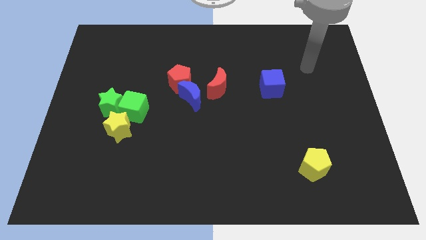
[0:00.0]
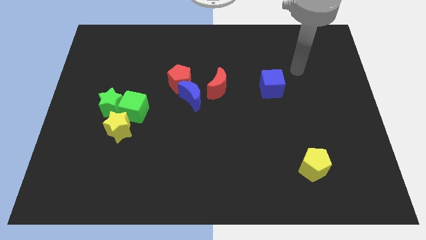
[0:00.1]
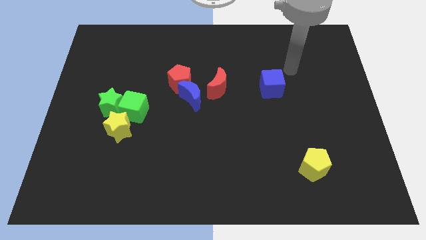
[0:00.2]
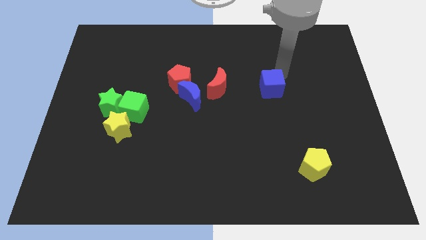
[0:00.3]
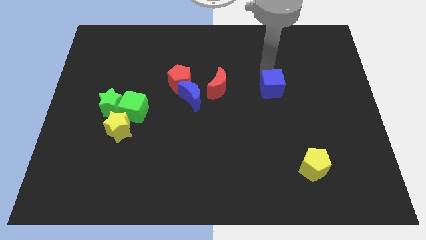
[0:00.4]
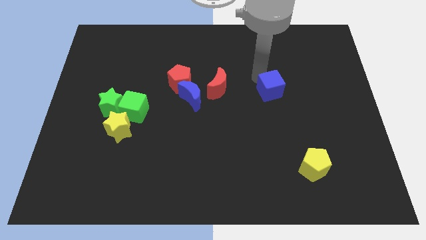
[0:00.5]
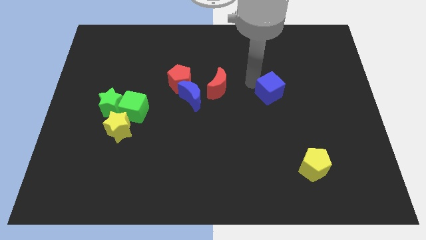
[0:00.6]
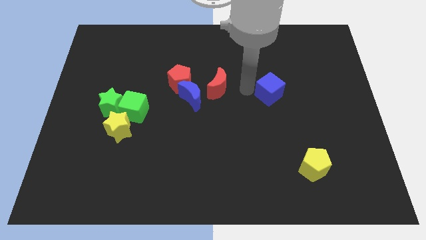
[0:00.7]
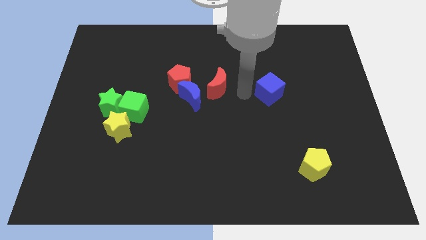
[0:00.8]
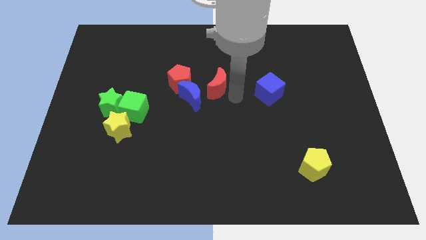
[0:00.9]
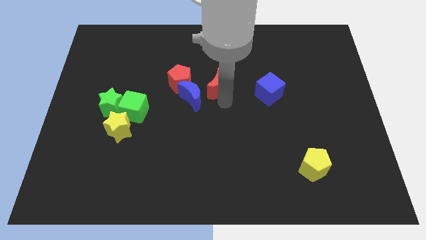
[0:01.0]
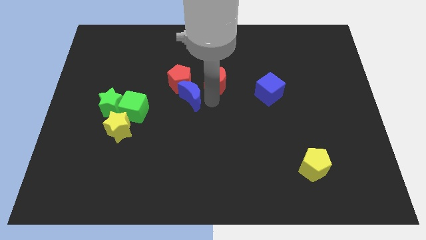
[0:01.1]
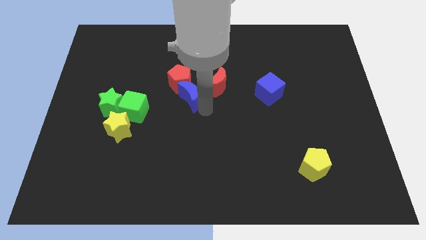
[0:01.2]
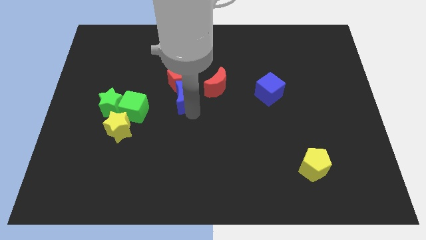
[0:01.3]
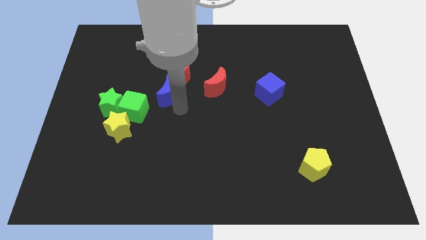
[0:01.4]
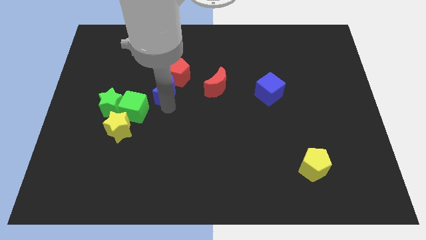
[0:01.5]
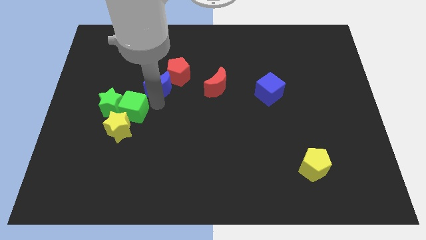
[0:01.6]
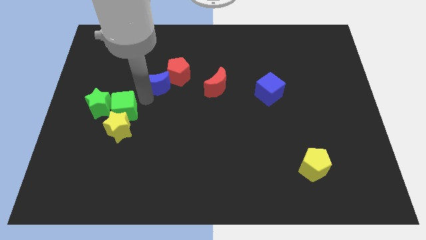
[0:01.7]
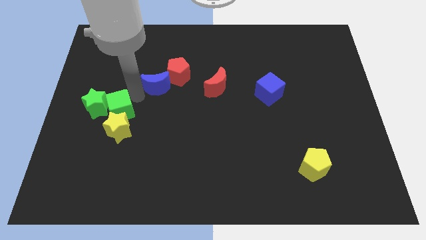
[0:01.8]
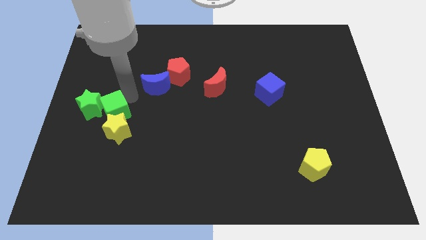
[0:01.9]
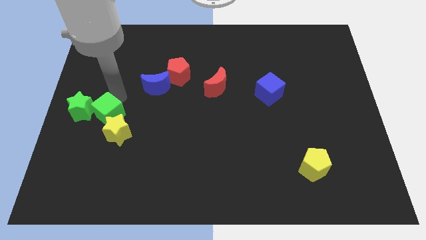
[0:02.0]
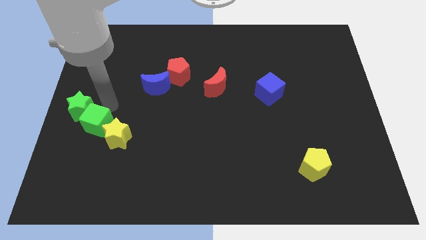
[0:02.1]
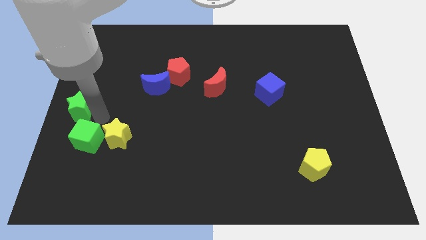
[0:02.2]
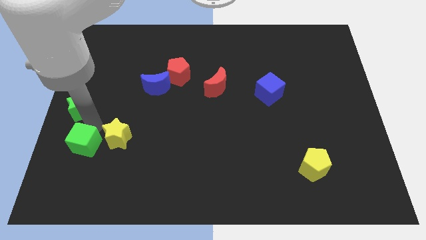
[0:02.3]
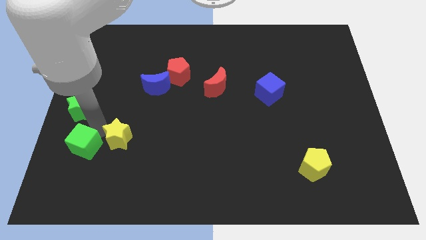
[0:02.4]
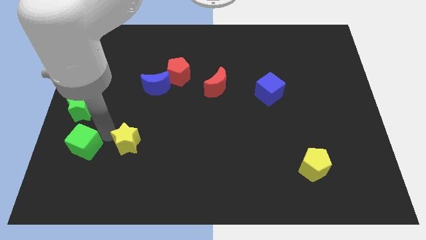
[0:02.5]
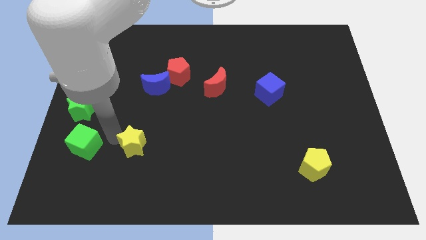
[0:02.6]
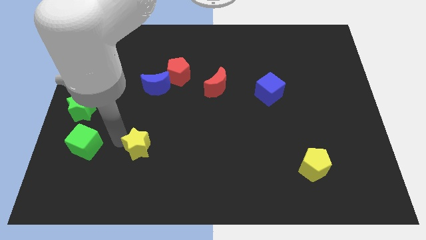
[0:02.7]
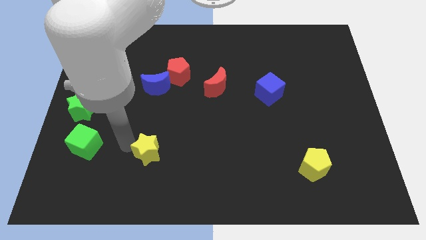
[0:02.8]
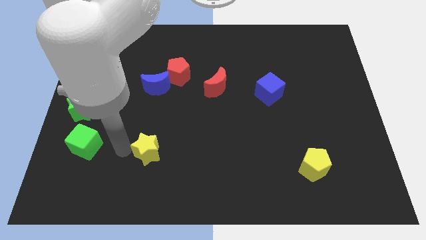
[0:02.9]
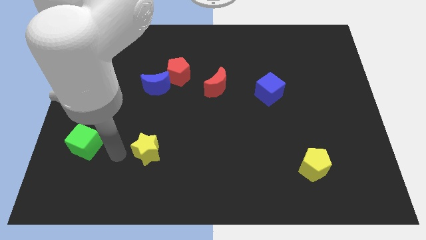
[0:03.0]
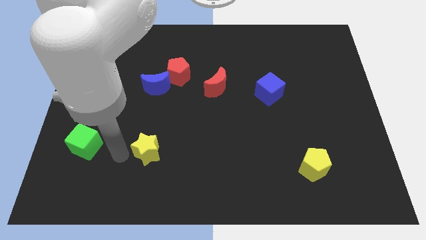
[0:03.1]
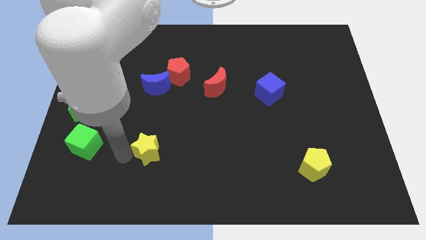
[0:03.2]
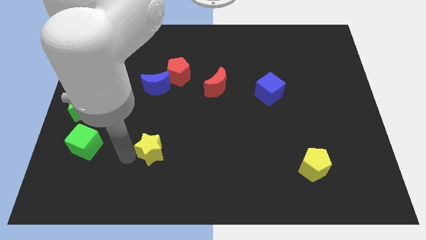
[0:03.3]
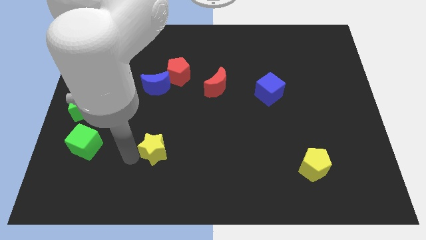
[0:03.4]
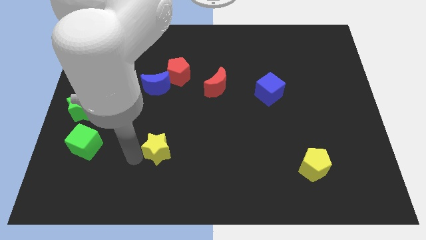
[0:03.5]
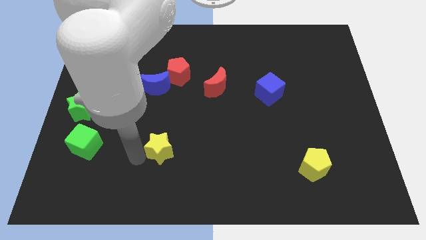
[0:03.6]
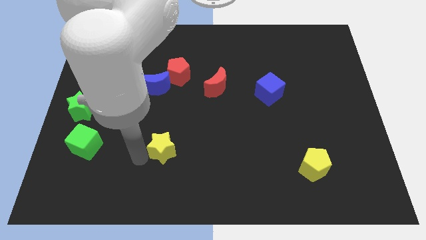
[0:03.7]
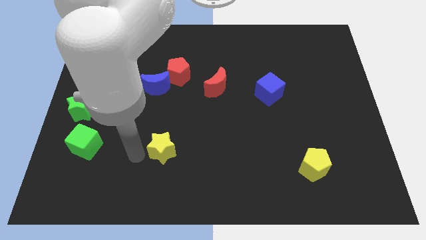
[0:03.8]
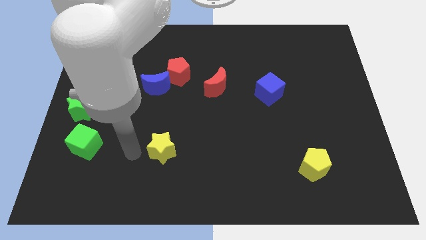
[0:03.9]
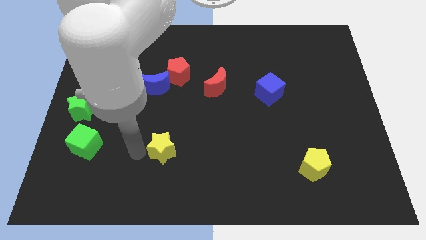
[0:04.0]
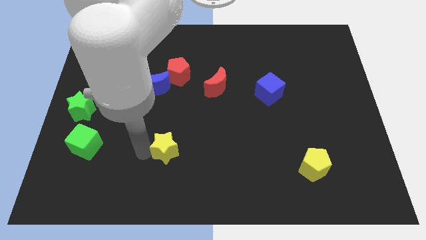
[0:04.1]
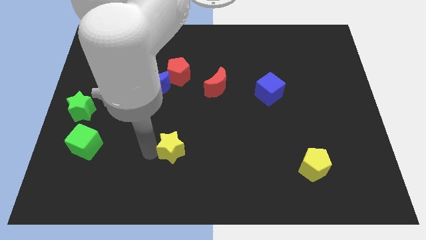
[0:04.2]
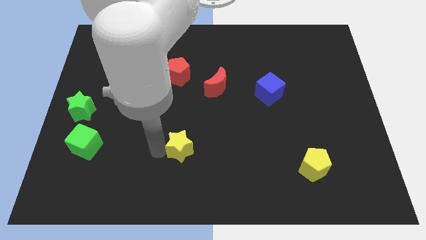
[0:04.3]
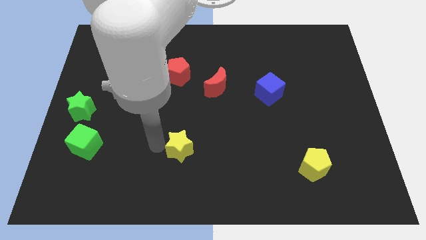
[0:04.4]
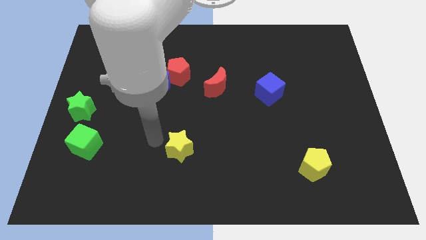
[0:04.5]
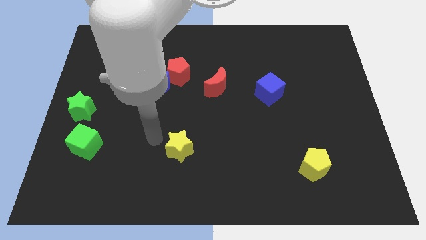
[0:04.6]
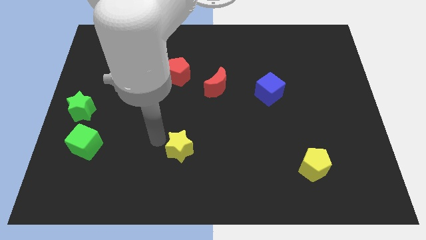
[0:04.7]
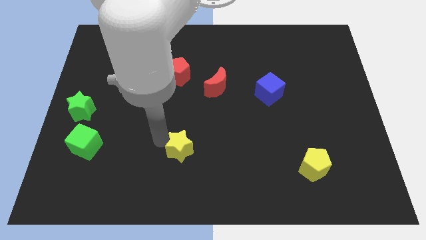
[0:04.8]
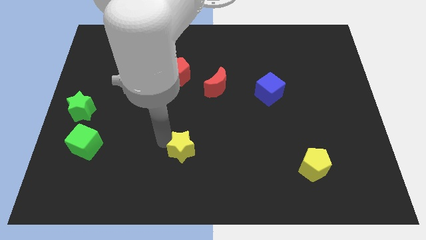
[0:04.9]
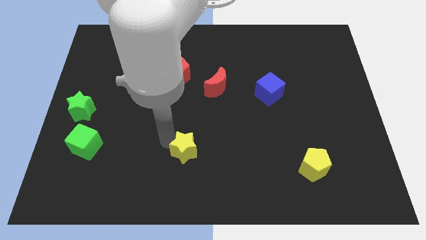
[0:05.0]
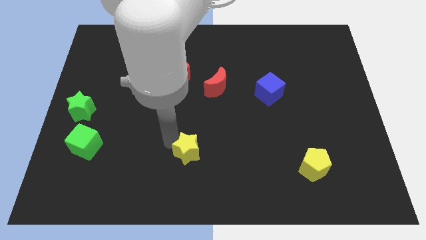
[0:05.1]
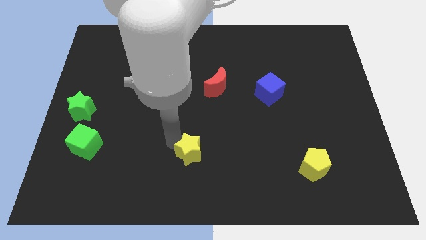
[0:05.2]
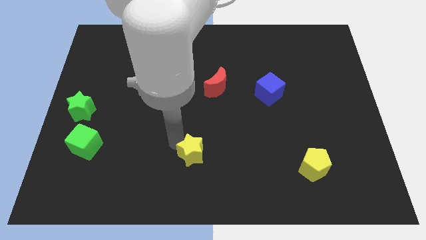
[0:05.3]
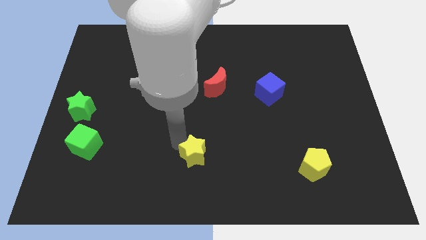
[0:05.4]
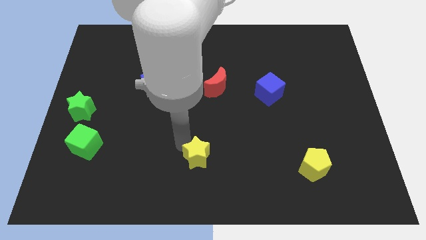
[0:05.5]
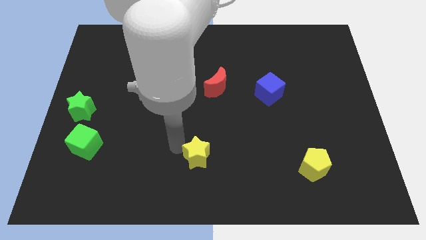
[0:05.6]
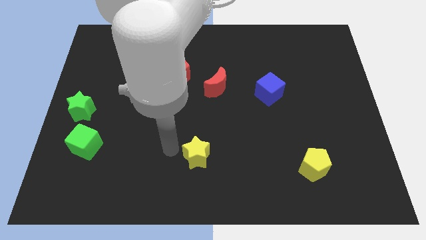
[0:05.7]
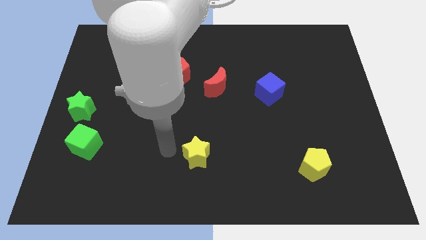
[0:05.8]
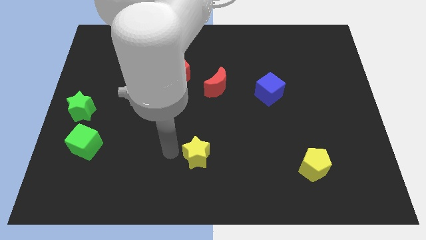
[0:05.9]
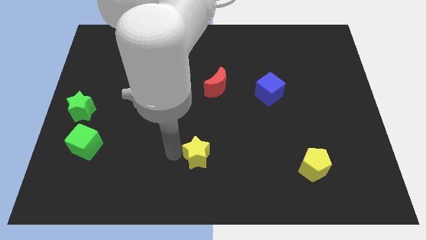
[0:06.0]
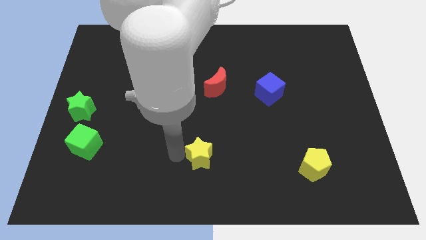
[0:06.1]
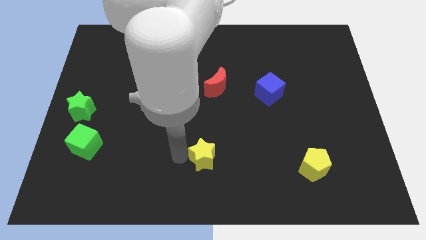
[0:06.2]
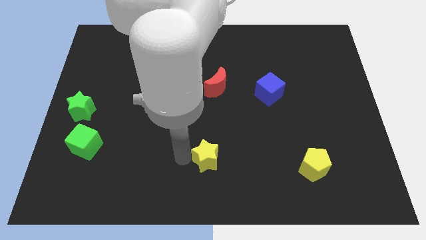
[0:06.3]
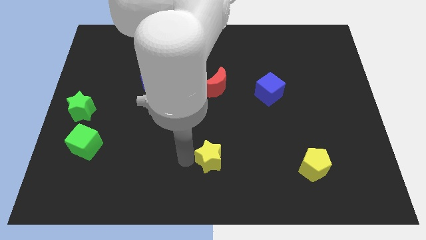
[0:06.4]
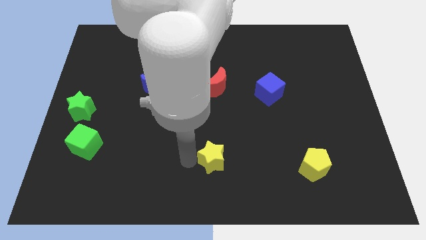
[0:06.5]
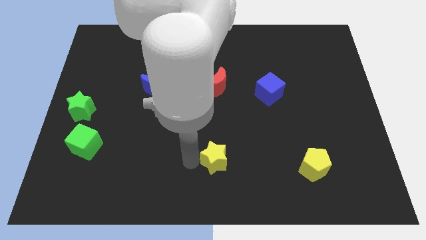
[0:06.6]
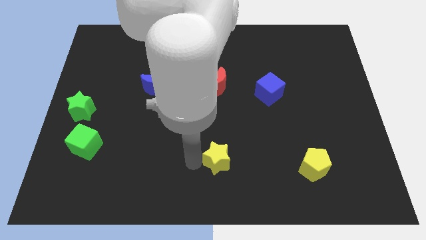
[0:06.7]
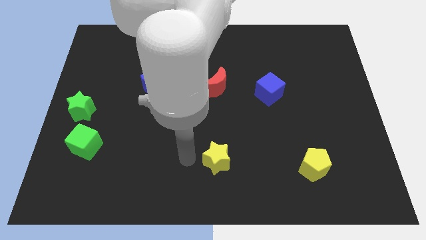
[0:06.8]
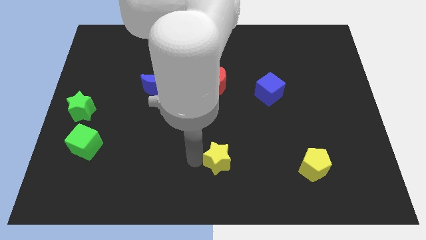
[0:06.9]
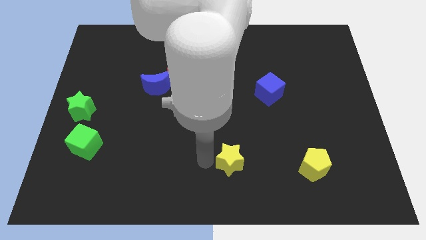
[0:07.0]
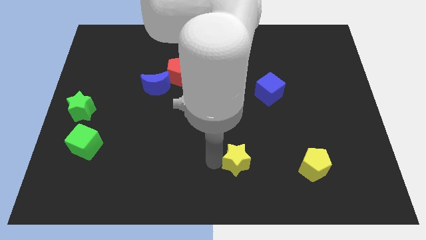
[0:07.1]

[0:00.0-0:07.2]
push the yellow star to the left side of the yellow pentagon
